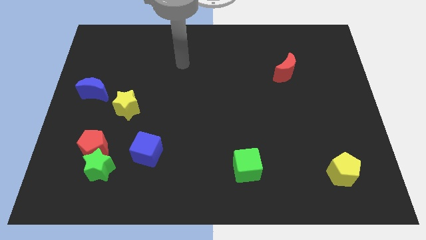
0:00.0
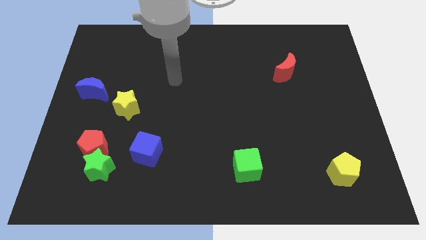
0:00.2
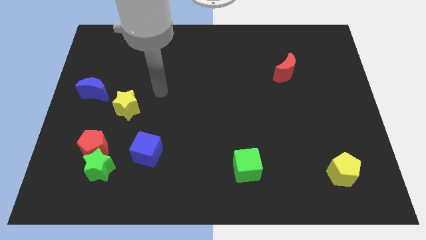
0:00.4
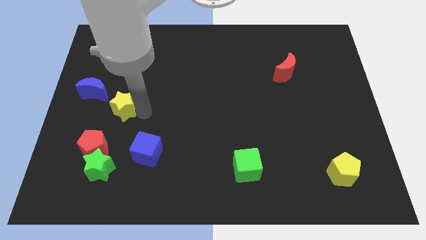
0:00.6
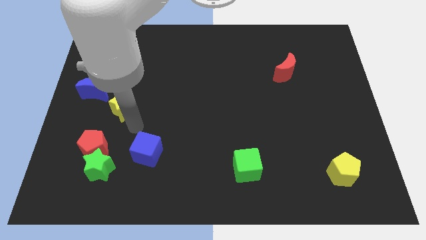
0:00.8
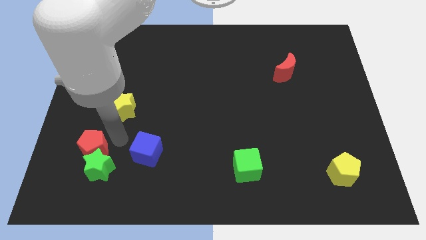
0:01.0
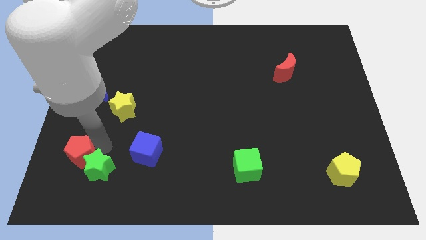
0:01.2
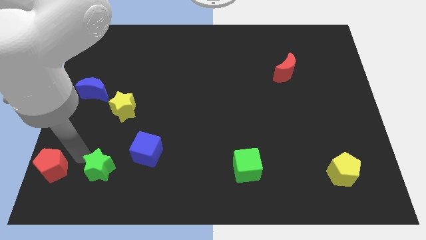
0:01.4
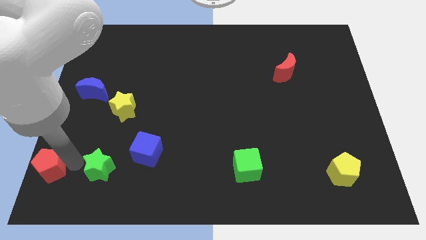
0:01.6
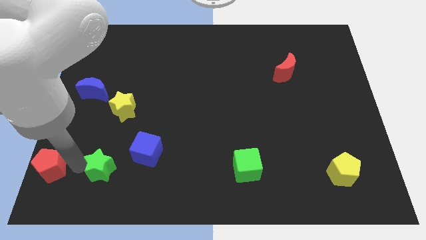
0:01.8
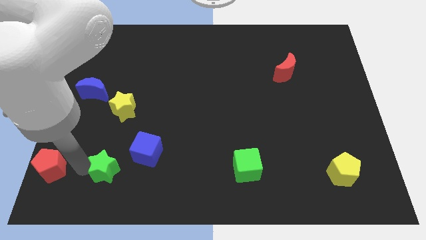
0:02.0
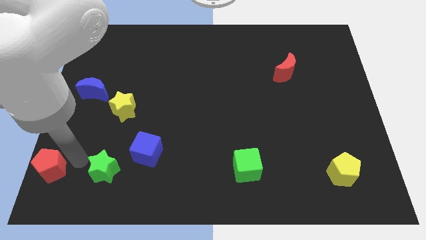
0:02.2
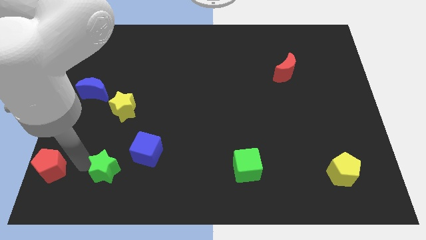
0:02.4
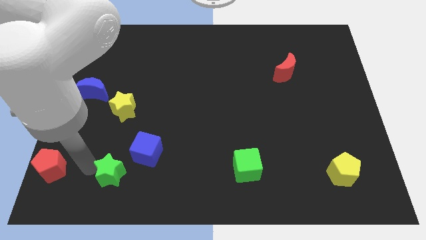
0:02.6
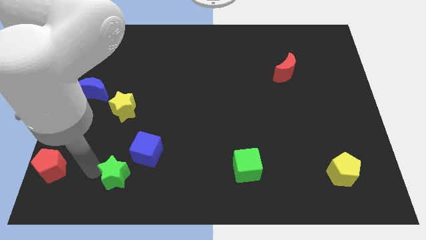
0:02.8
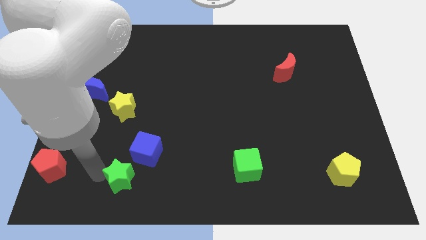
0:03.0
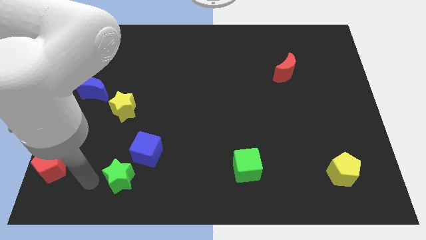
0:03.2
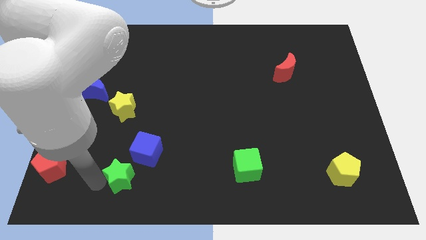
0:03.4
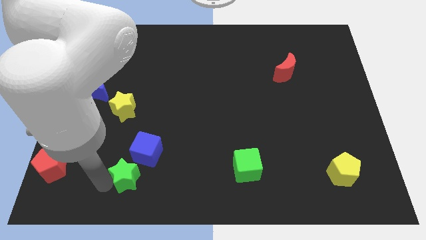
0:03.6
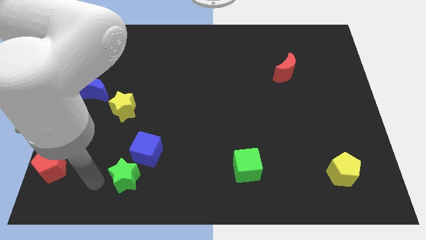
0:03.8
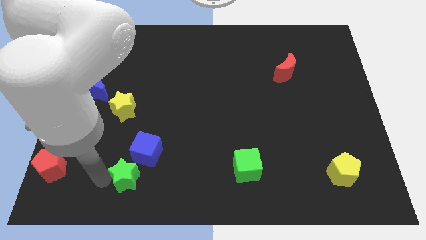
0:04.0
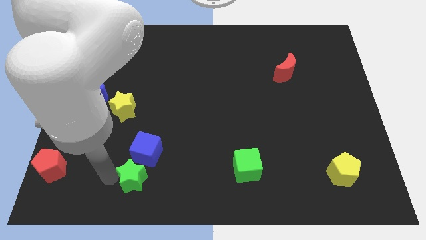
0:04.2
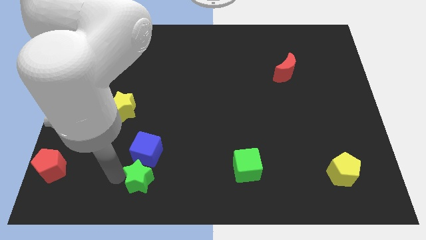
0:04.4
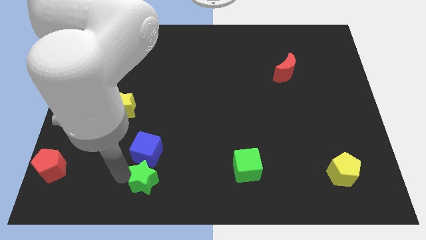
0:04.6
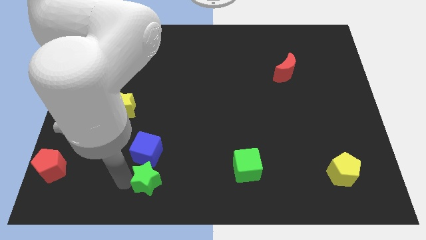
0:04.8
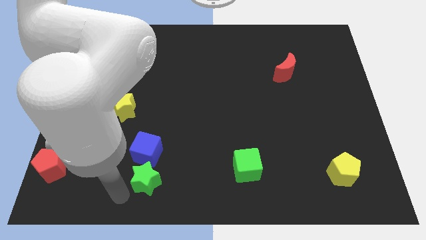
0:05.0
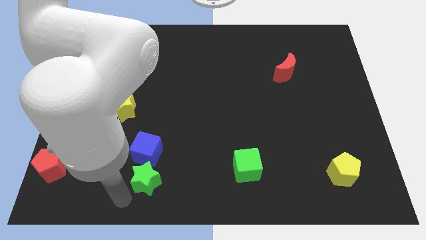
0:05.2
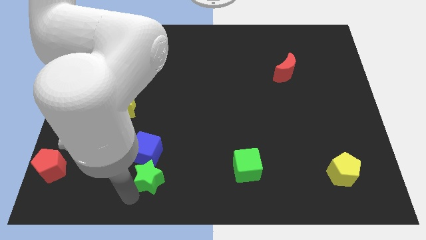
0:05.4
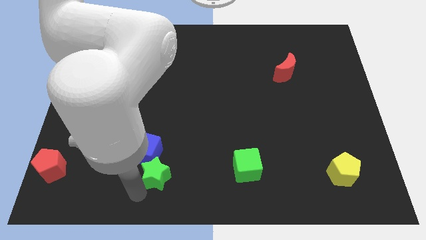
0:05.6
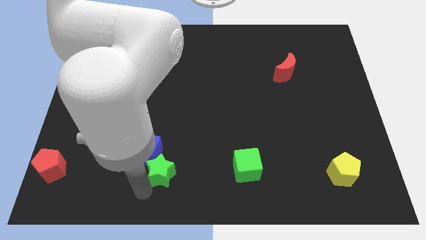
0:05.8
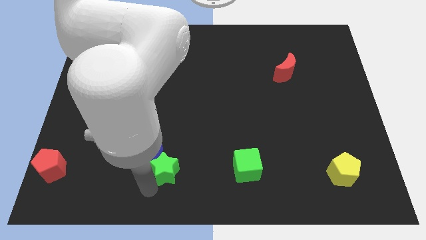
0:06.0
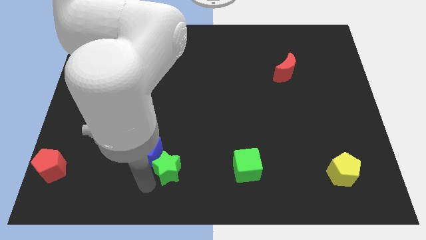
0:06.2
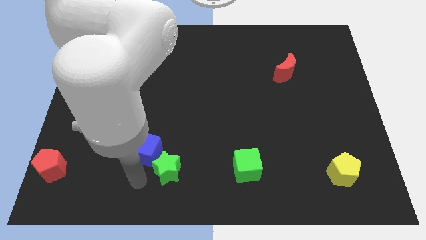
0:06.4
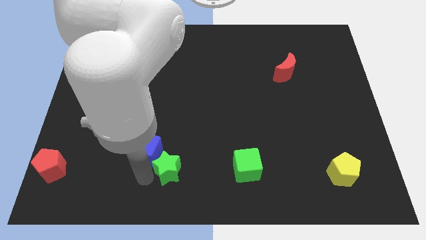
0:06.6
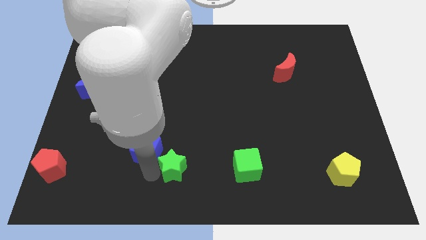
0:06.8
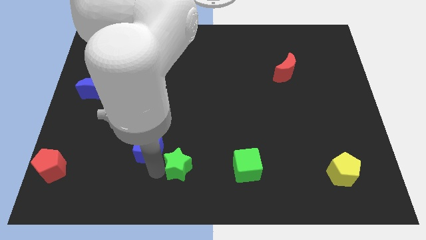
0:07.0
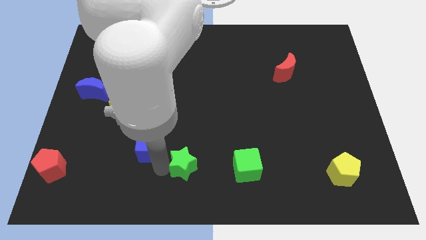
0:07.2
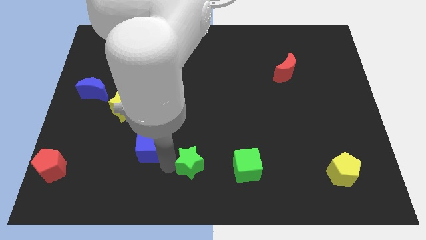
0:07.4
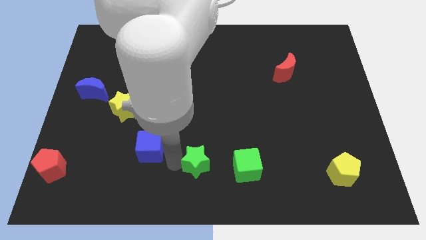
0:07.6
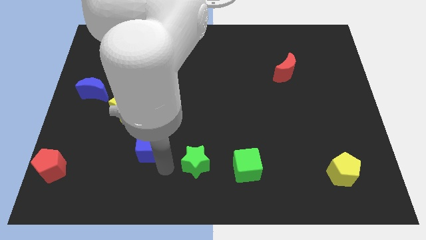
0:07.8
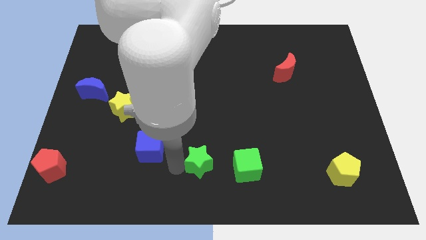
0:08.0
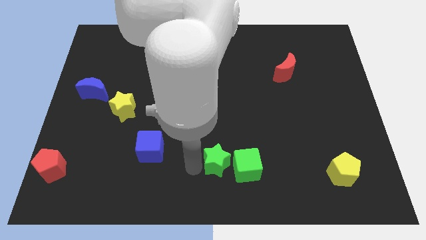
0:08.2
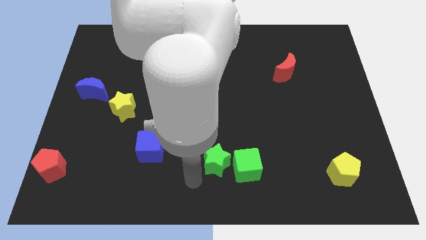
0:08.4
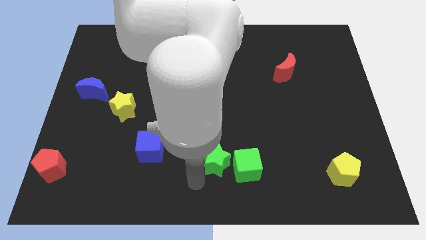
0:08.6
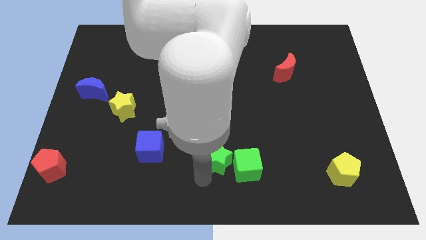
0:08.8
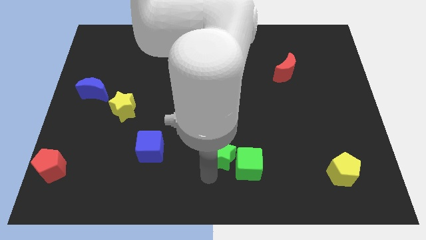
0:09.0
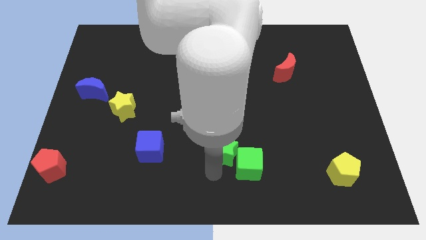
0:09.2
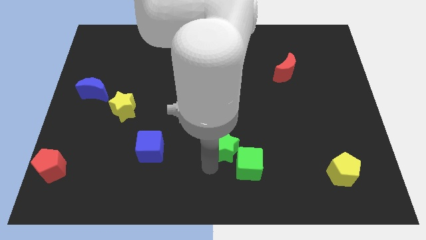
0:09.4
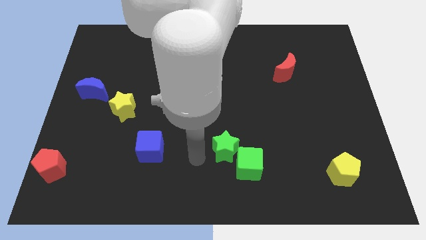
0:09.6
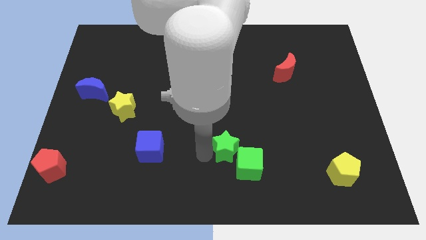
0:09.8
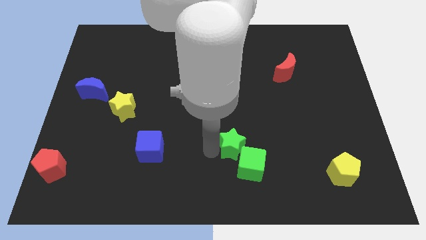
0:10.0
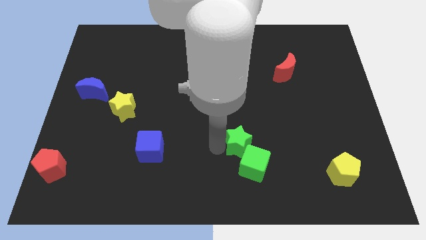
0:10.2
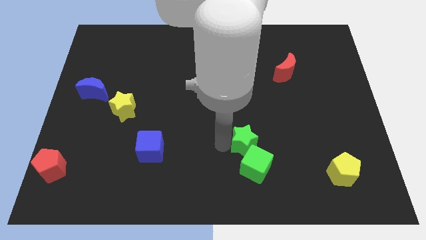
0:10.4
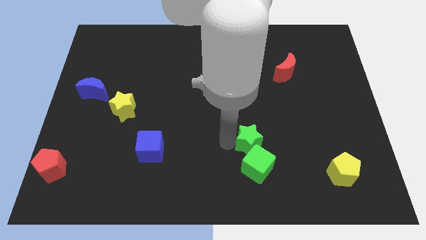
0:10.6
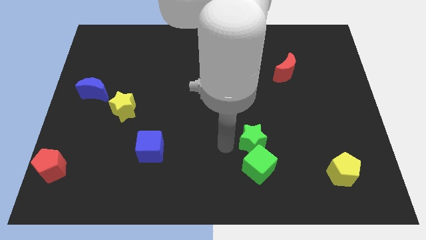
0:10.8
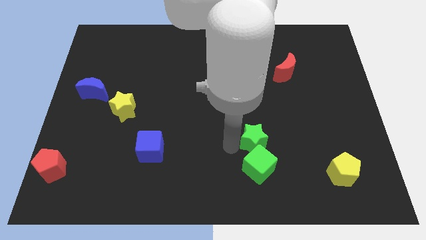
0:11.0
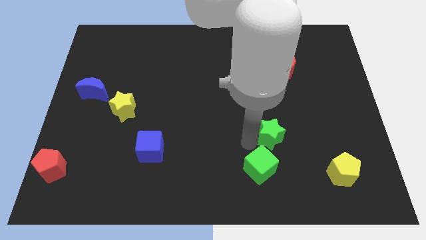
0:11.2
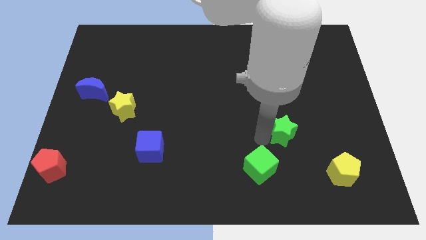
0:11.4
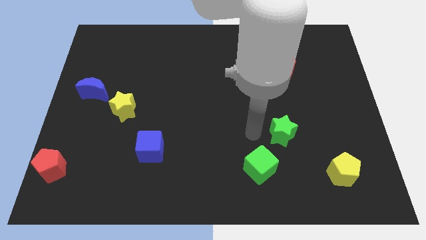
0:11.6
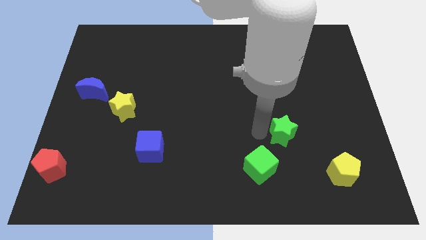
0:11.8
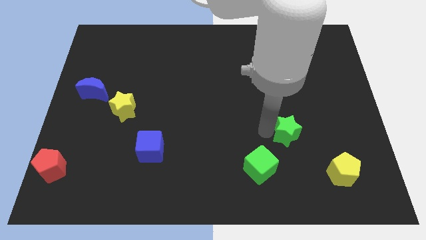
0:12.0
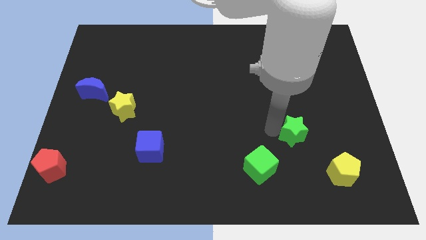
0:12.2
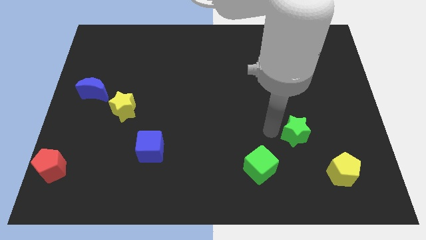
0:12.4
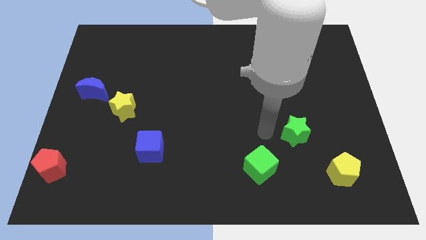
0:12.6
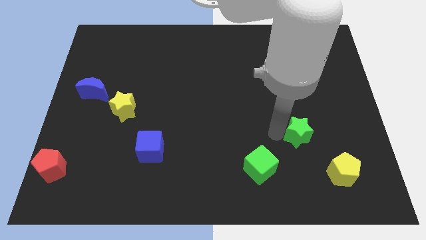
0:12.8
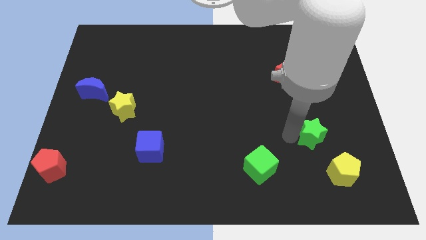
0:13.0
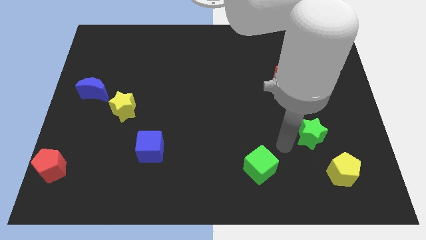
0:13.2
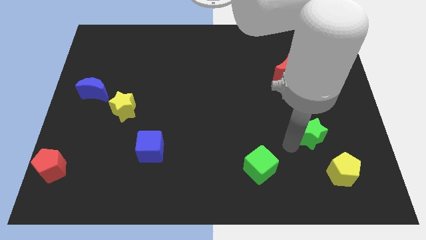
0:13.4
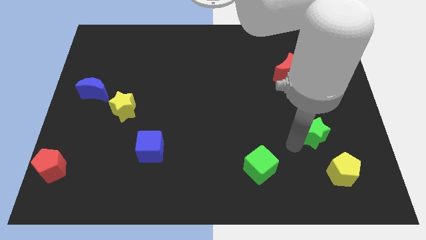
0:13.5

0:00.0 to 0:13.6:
put the green star to the top of the yellow pentagon
